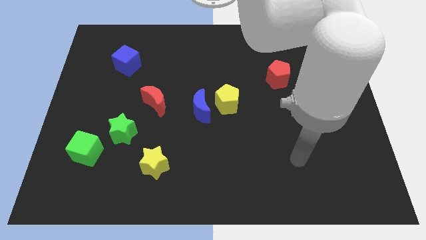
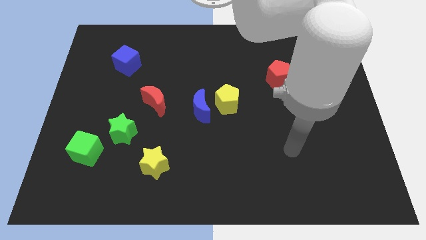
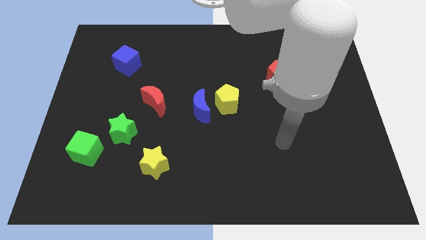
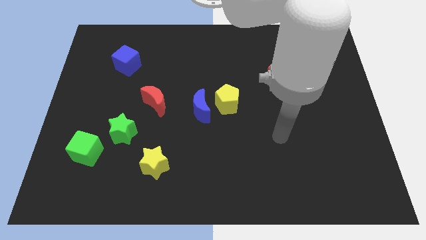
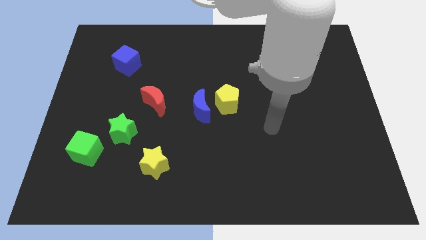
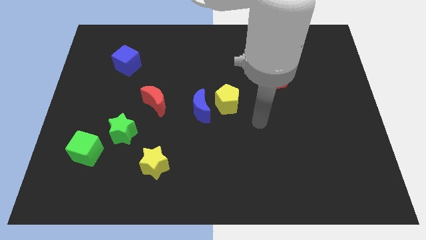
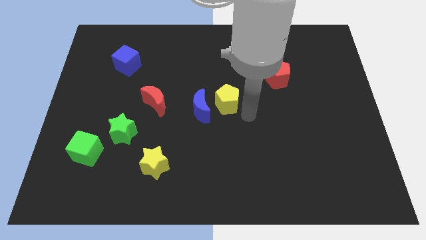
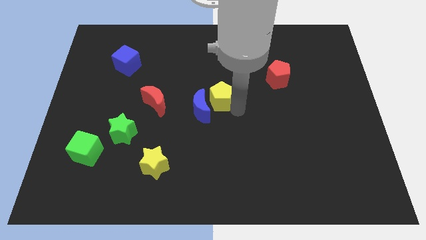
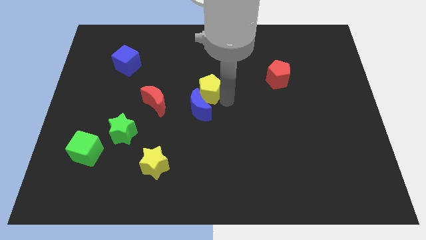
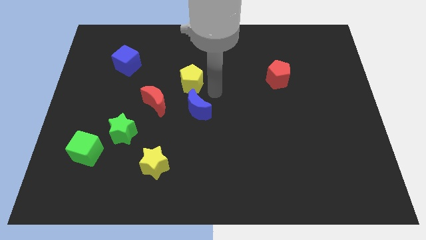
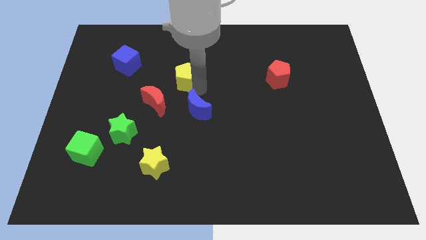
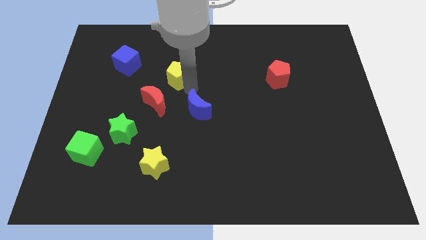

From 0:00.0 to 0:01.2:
move the blue moon away from the yellow pentagon

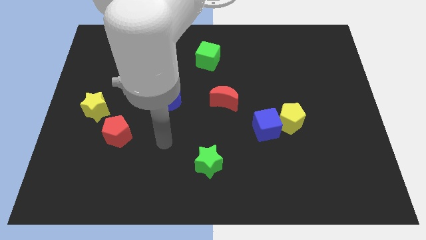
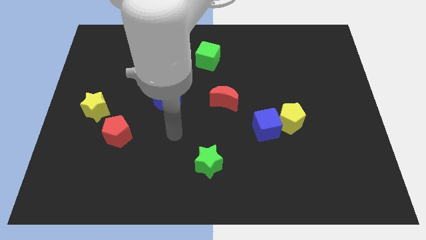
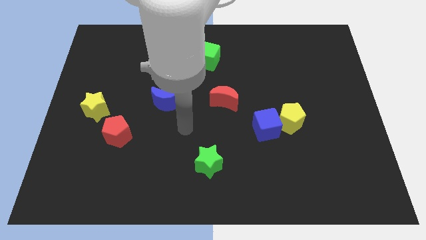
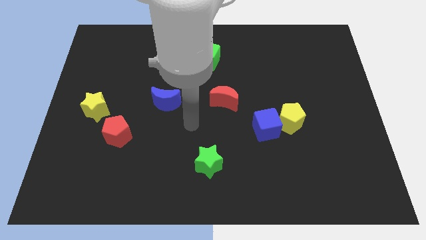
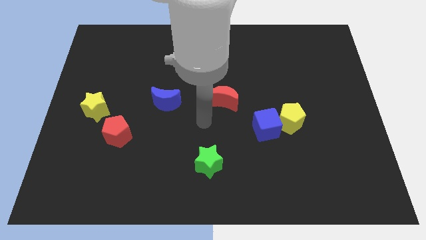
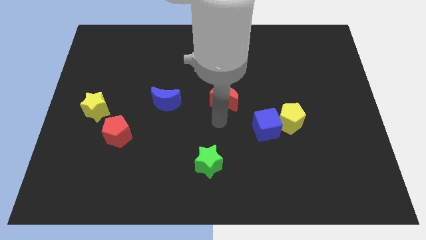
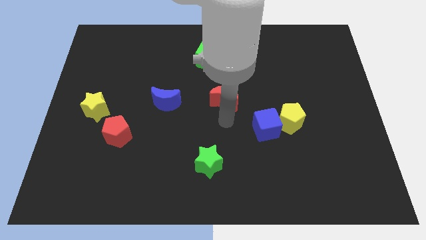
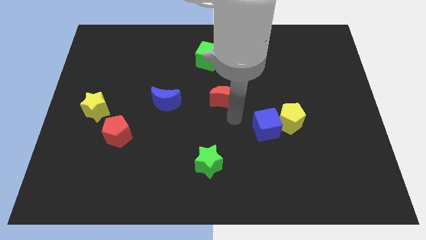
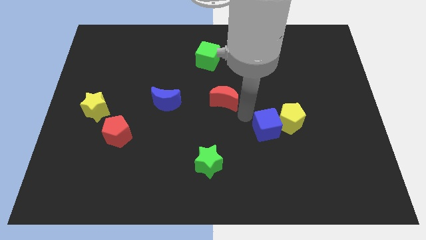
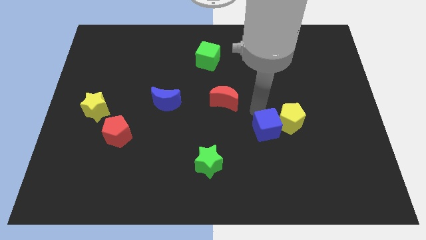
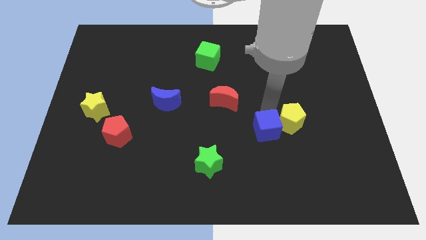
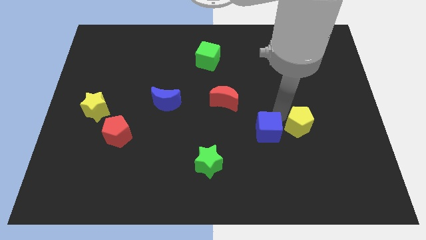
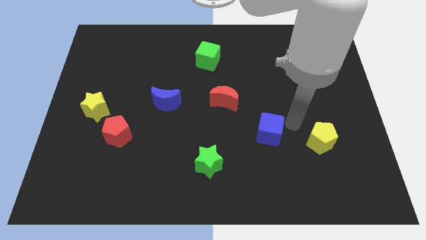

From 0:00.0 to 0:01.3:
separate the blue cube from the yellow pentagon

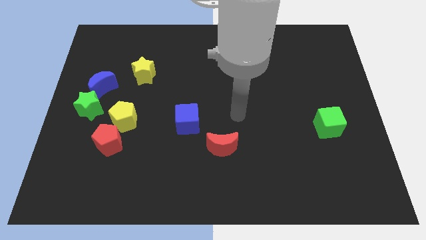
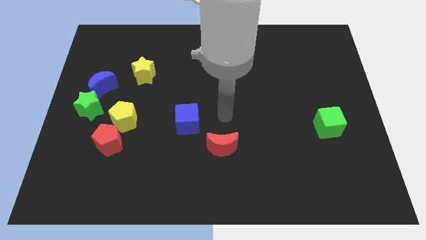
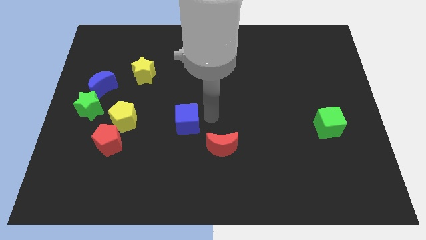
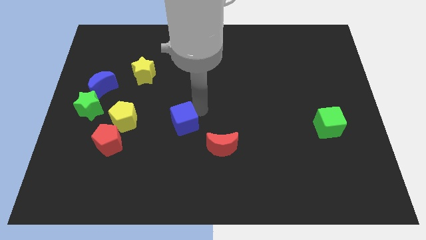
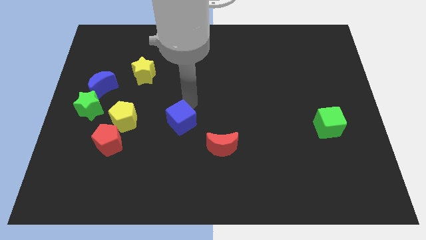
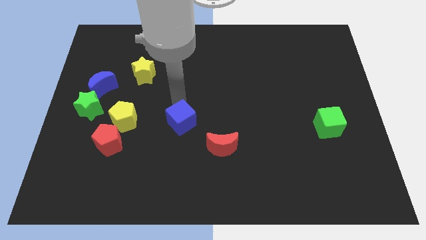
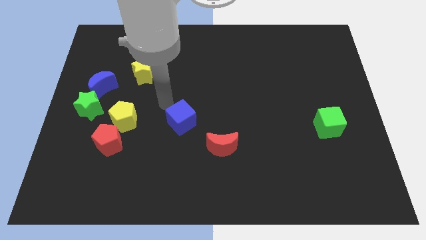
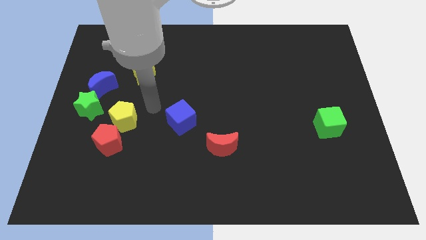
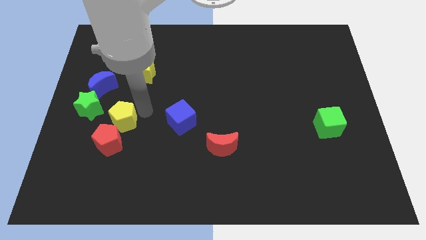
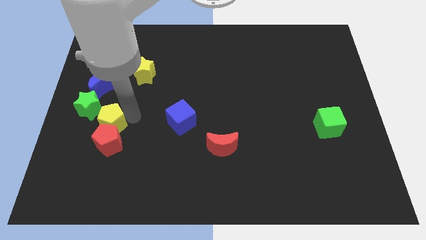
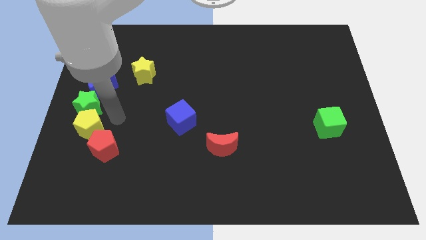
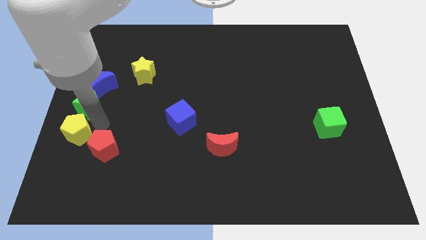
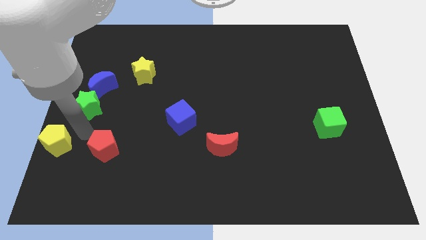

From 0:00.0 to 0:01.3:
separate the red pentagon from the yellow pentagon

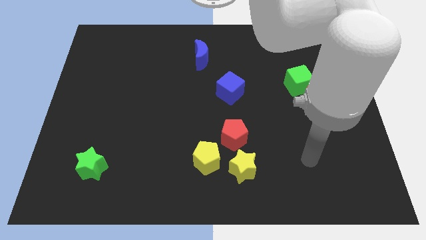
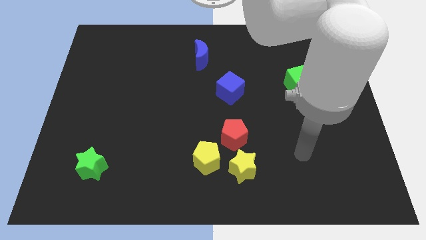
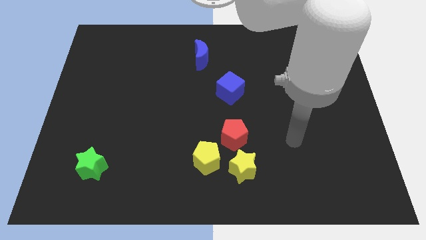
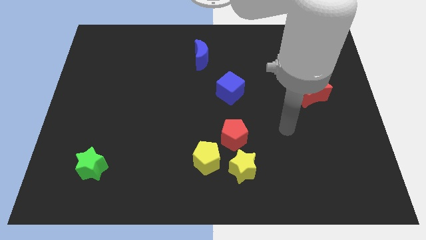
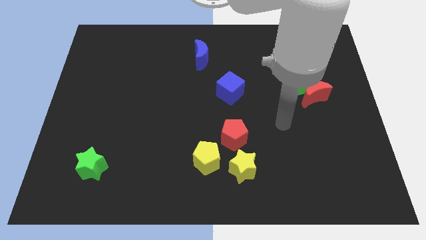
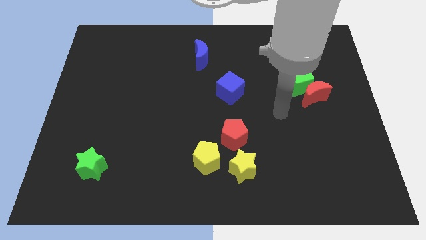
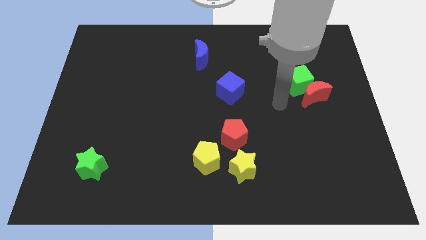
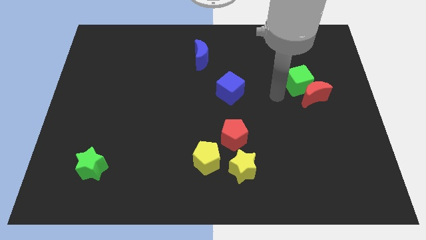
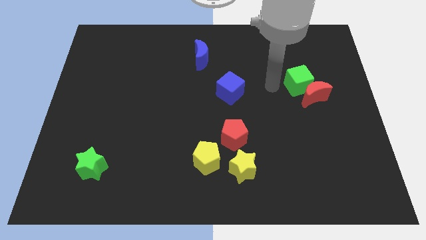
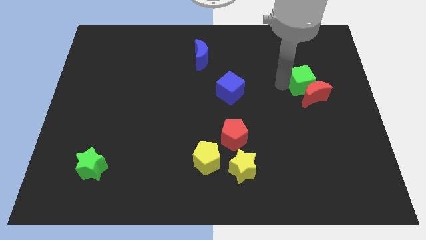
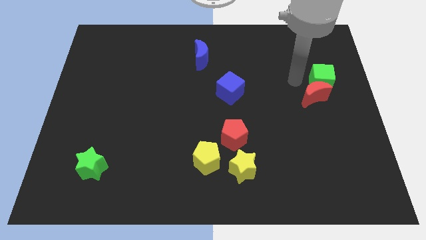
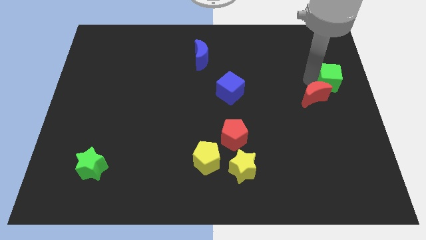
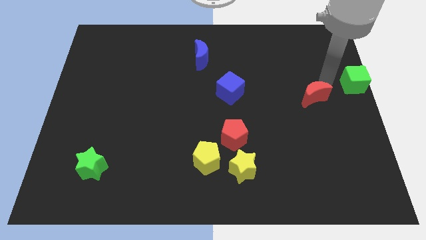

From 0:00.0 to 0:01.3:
separate the red moon from the green cube

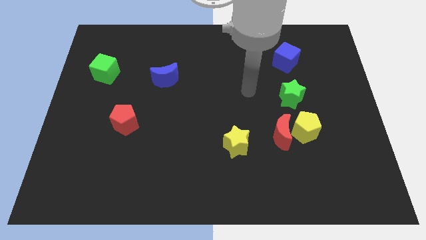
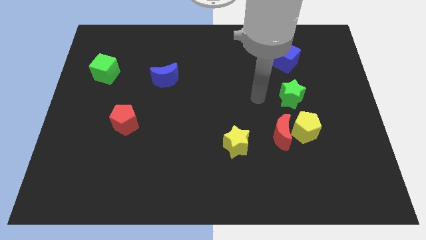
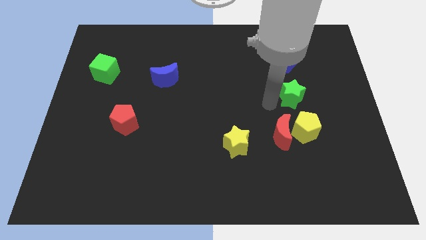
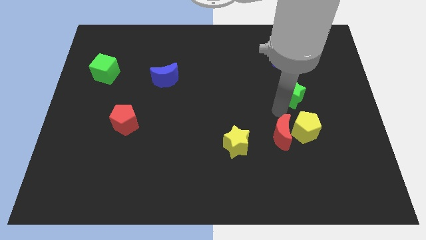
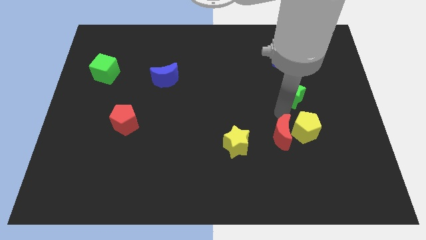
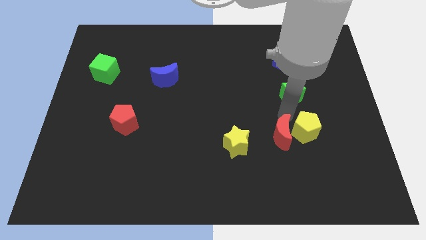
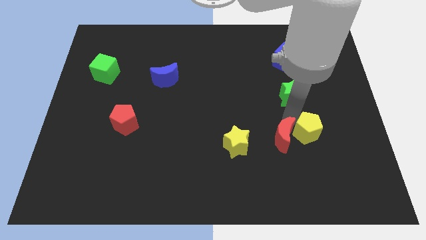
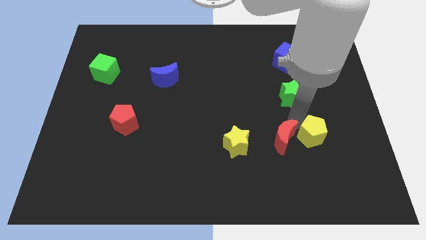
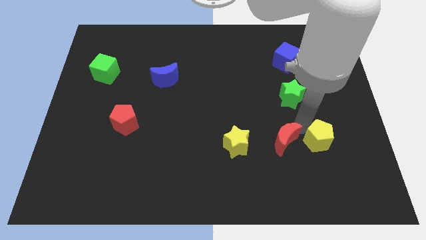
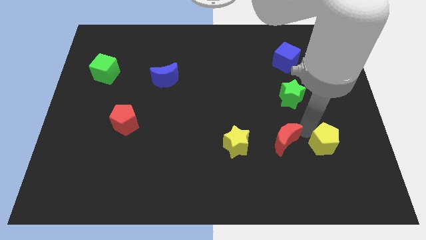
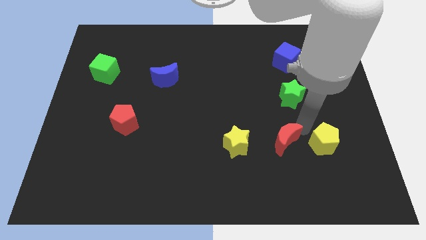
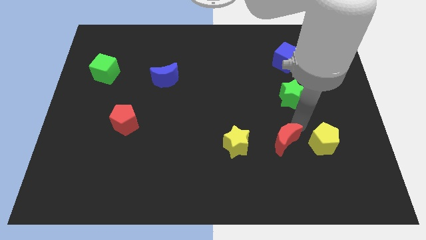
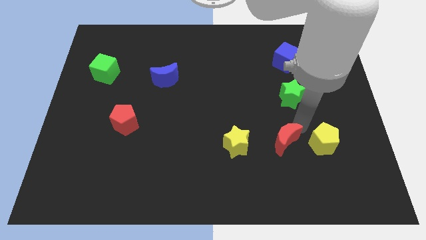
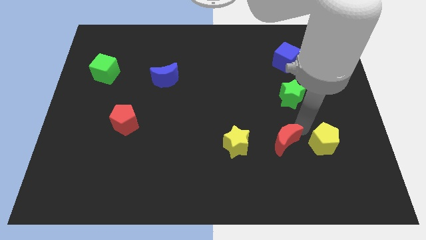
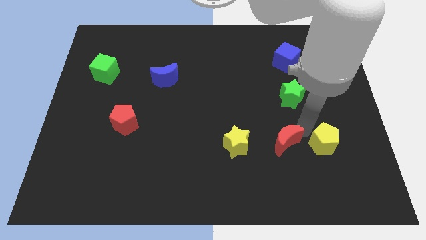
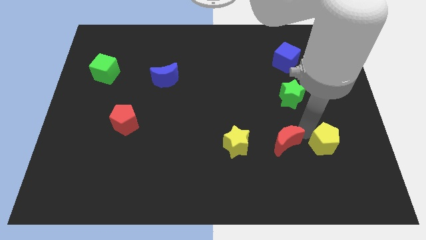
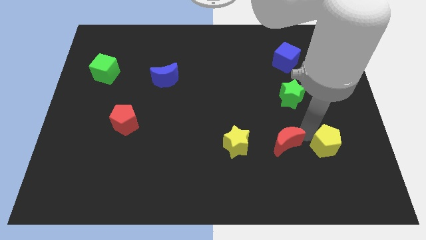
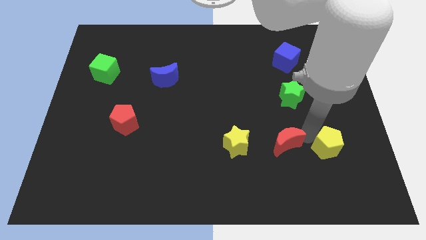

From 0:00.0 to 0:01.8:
separate the yellow pentagon from the red moon and green star

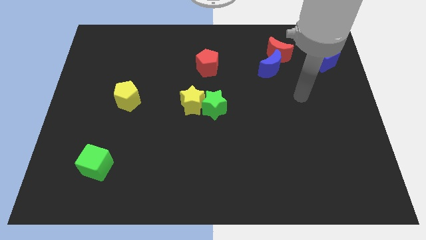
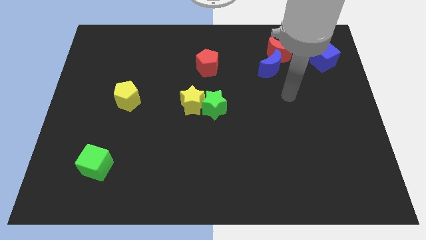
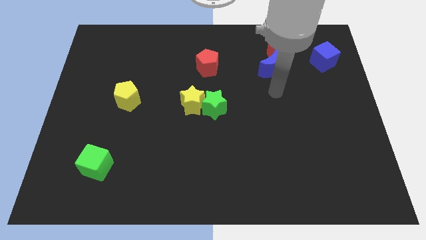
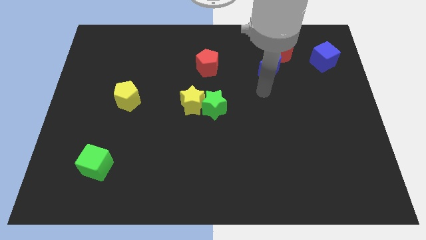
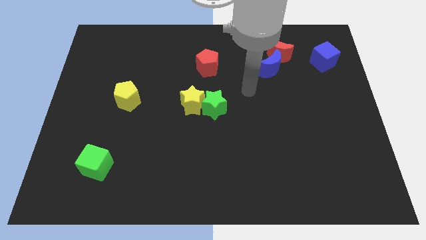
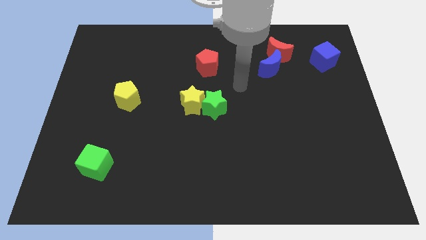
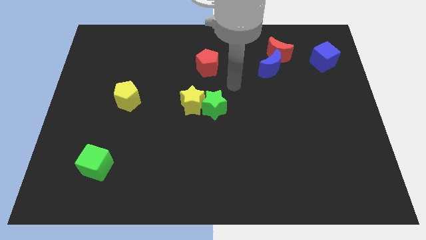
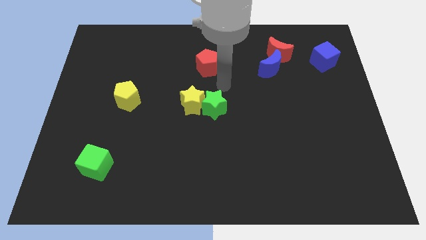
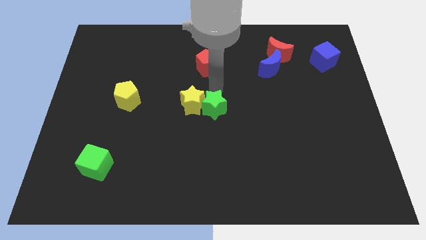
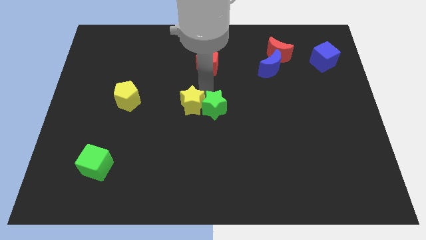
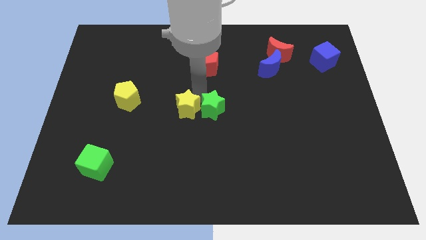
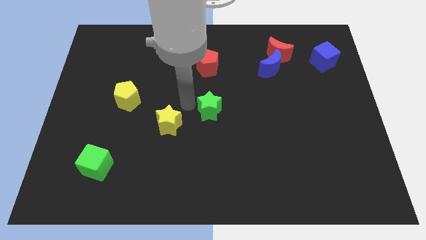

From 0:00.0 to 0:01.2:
separate the green star from the yellow star

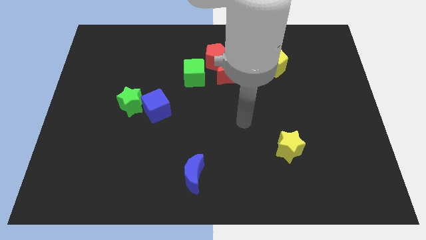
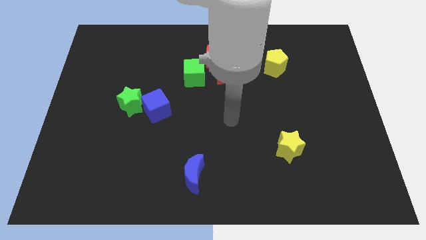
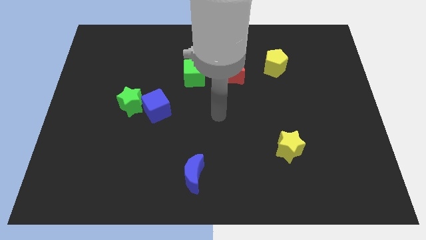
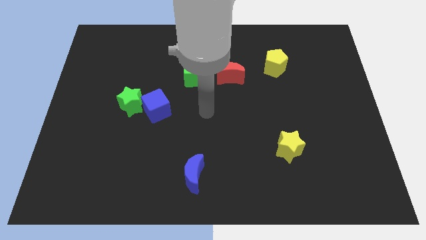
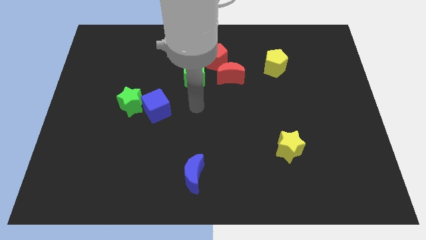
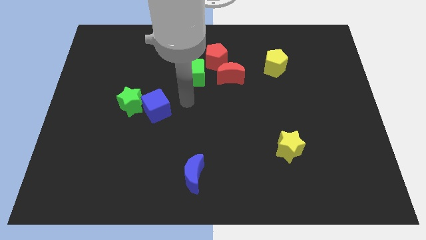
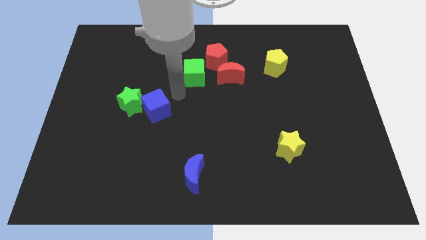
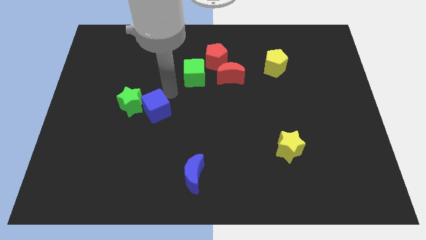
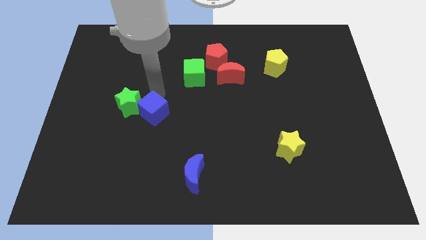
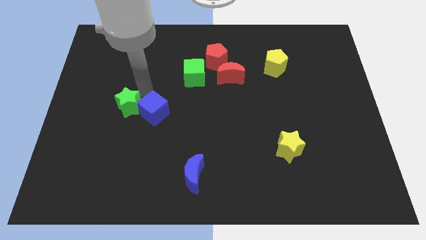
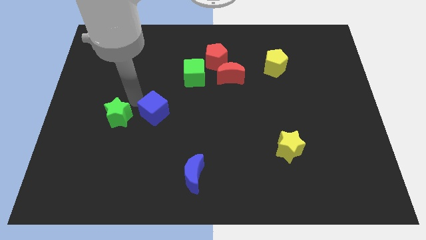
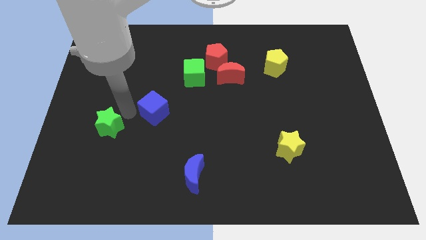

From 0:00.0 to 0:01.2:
move the blue cube away from the green star
